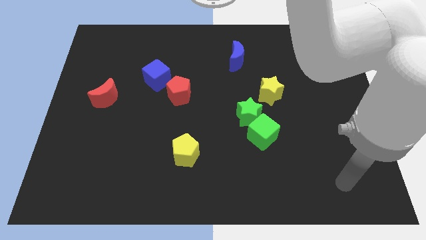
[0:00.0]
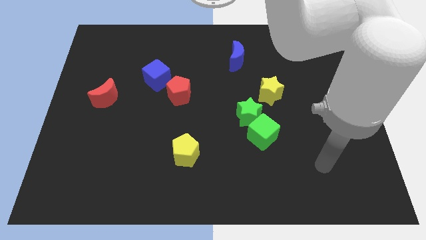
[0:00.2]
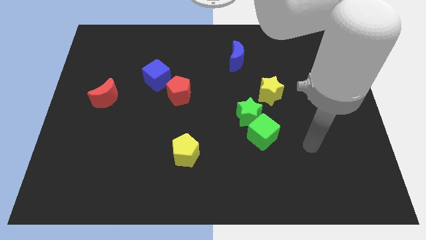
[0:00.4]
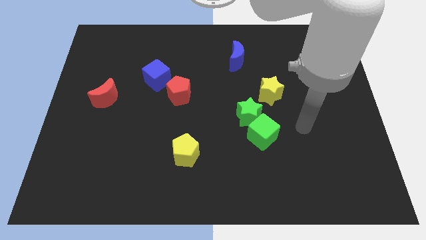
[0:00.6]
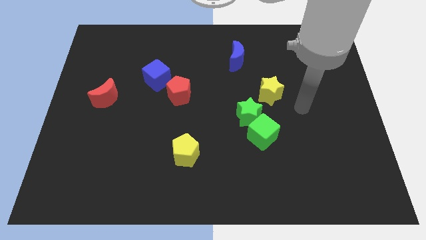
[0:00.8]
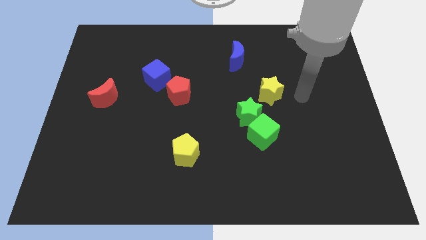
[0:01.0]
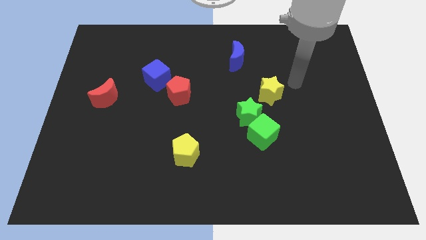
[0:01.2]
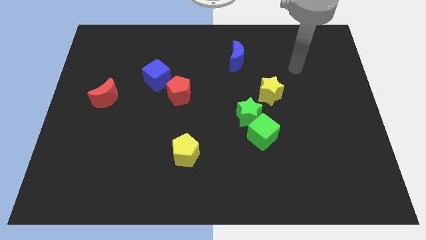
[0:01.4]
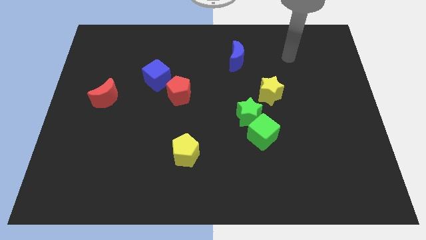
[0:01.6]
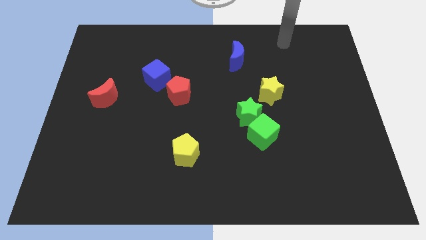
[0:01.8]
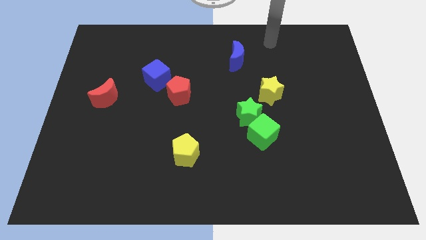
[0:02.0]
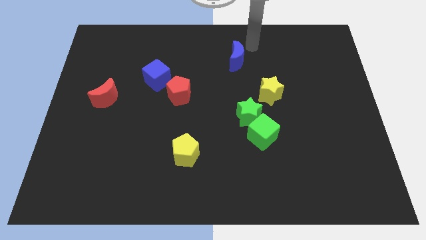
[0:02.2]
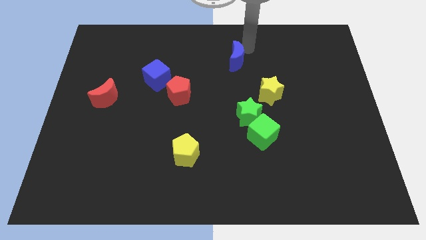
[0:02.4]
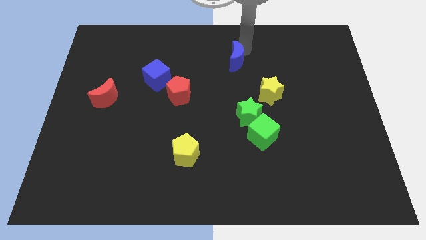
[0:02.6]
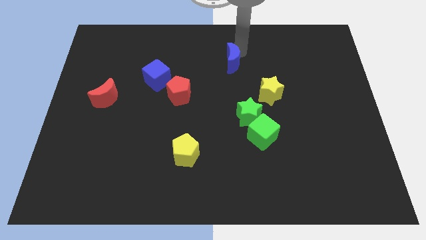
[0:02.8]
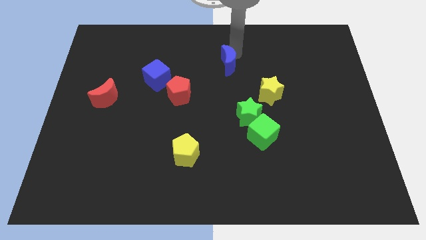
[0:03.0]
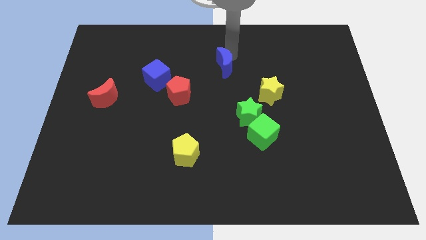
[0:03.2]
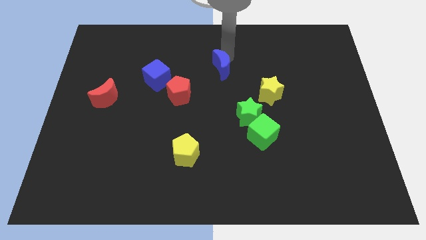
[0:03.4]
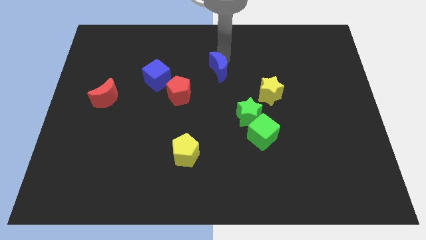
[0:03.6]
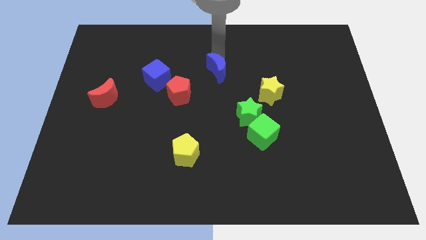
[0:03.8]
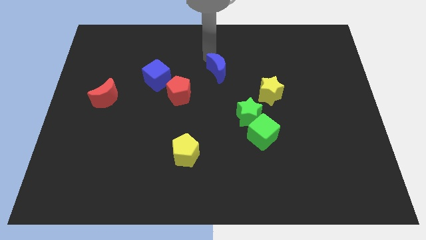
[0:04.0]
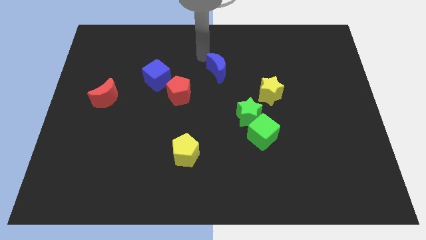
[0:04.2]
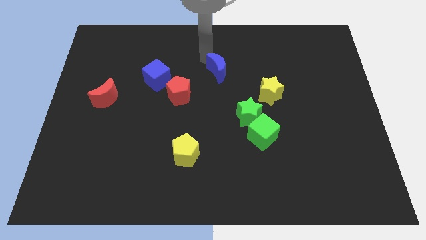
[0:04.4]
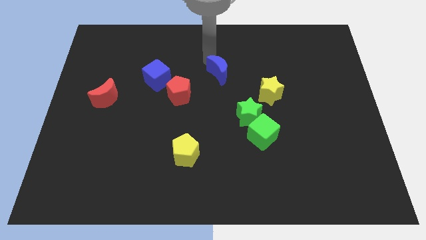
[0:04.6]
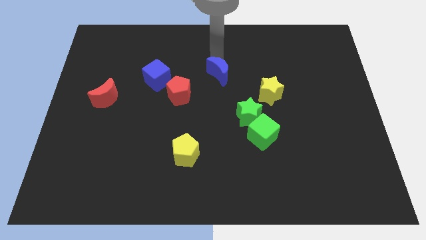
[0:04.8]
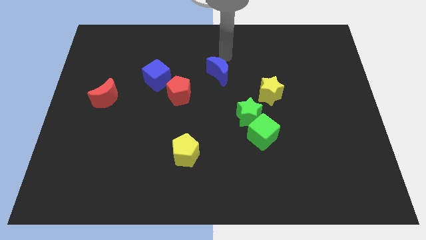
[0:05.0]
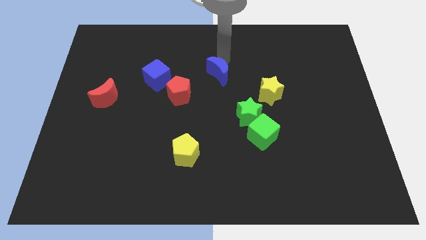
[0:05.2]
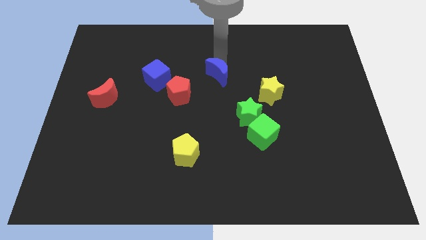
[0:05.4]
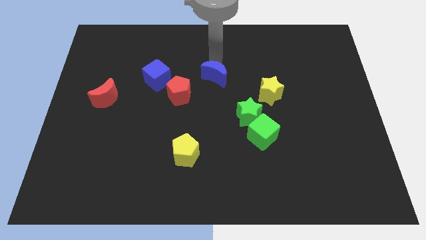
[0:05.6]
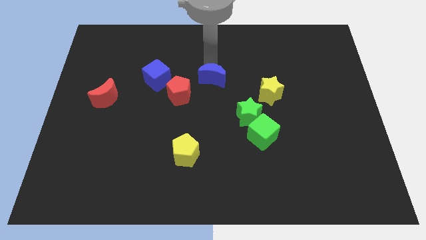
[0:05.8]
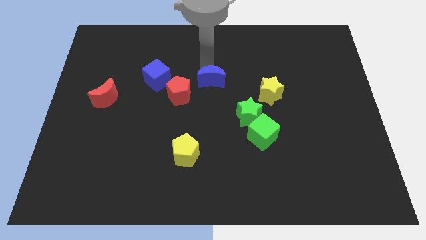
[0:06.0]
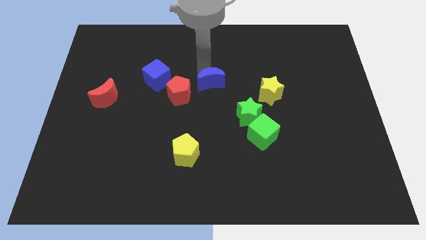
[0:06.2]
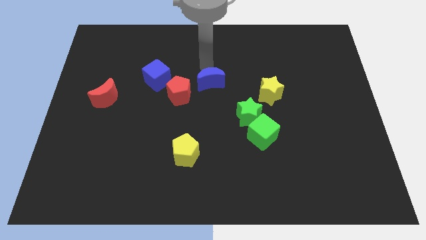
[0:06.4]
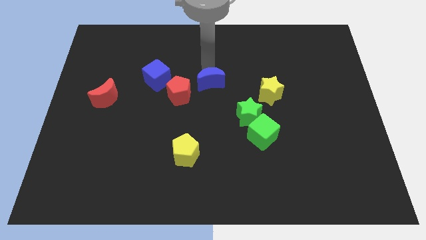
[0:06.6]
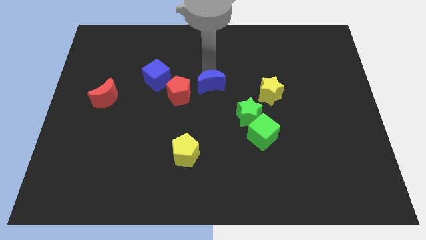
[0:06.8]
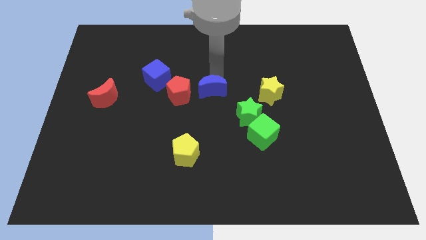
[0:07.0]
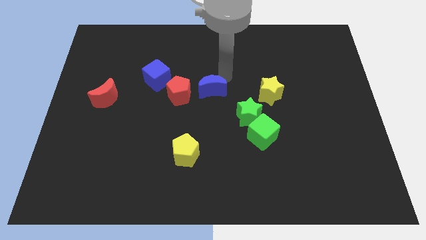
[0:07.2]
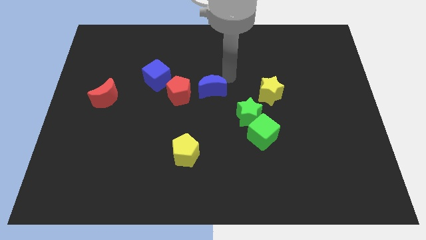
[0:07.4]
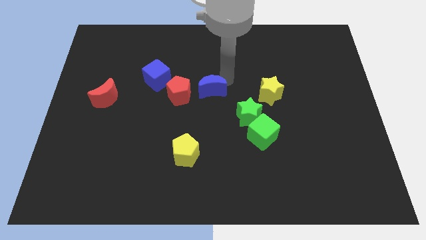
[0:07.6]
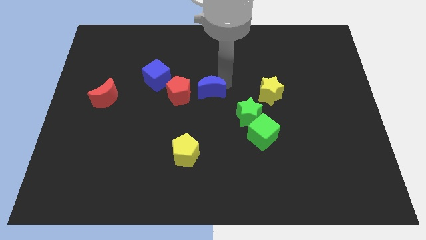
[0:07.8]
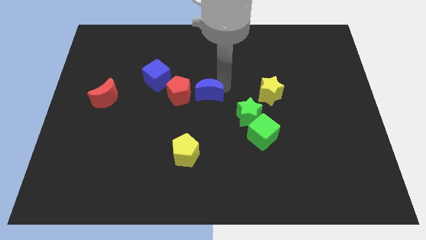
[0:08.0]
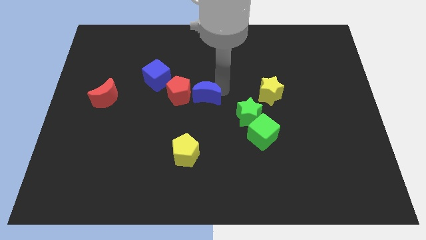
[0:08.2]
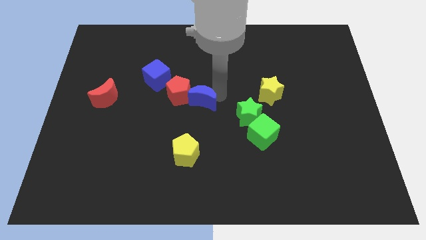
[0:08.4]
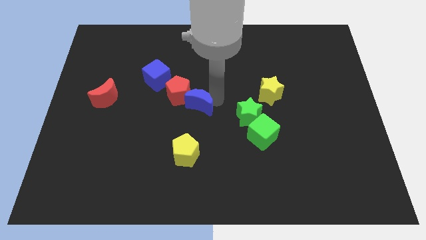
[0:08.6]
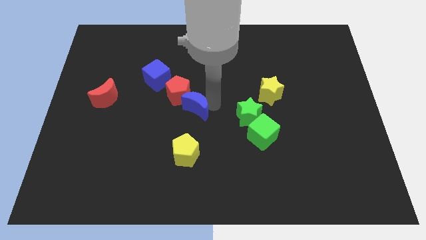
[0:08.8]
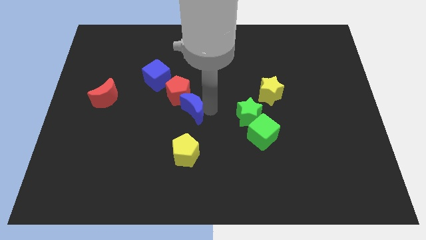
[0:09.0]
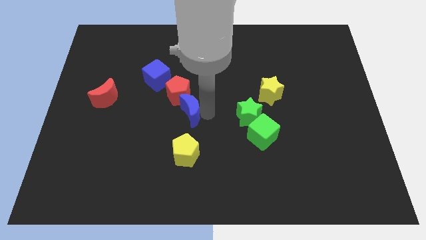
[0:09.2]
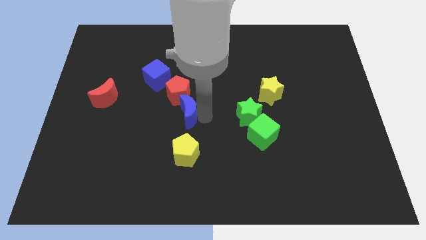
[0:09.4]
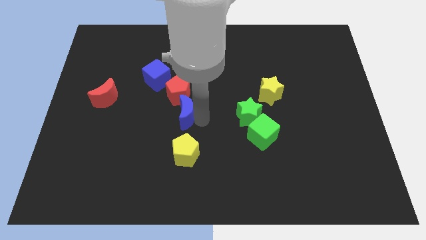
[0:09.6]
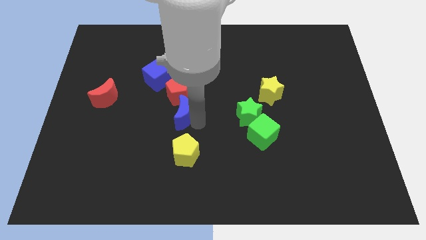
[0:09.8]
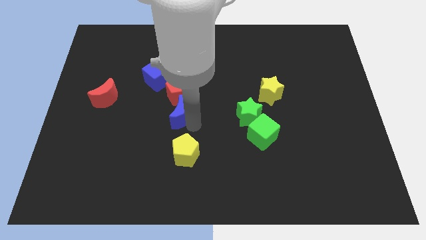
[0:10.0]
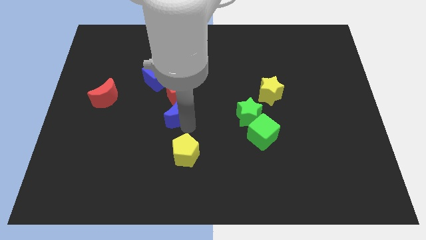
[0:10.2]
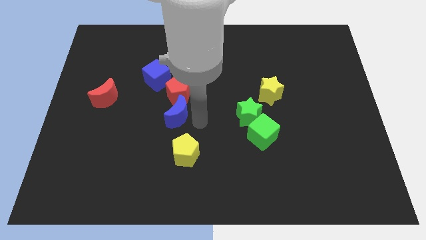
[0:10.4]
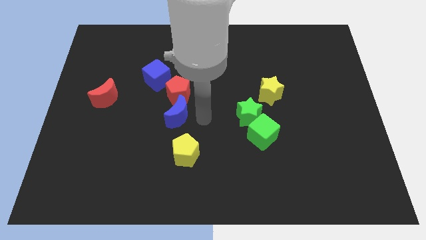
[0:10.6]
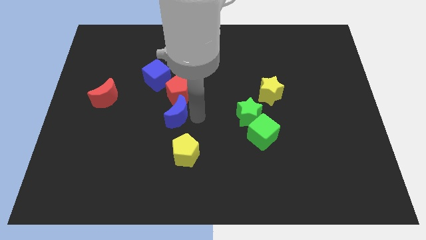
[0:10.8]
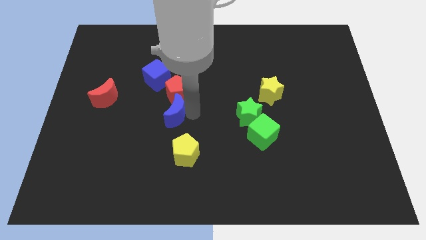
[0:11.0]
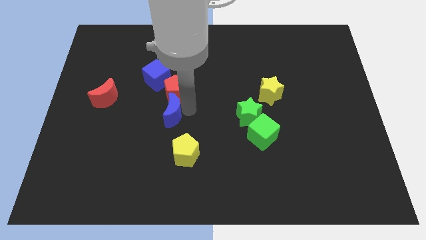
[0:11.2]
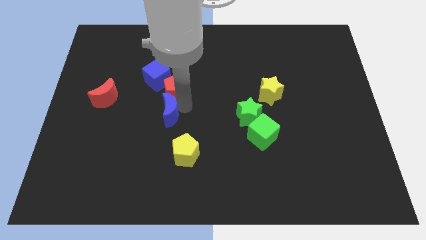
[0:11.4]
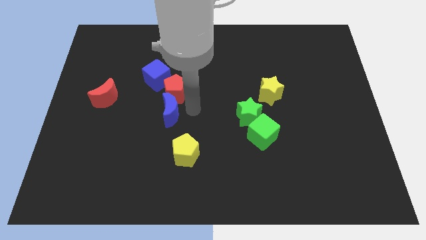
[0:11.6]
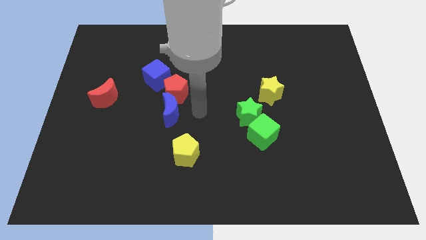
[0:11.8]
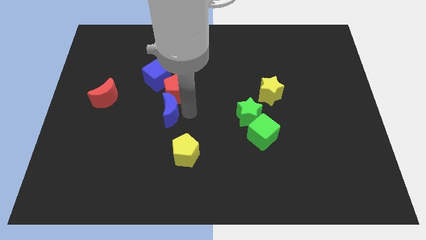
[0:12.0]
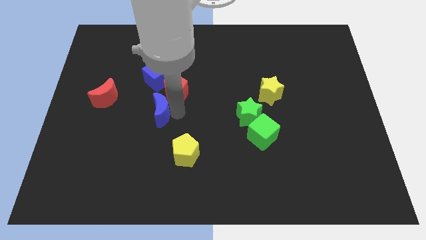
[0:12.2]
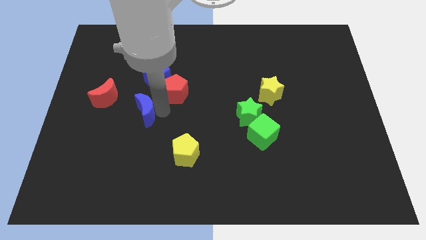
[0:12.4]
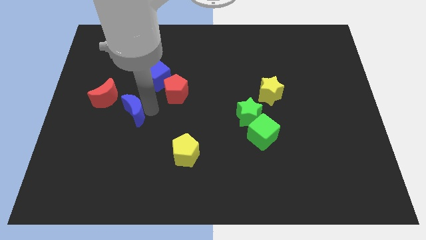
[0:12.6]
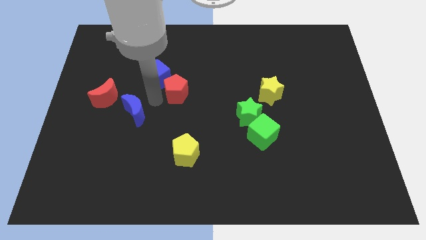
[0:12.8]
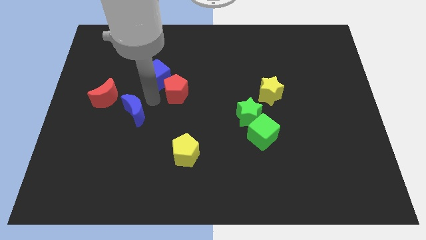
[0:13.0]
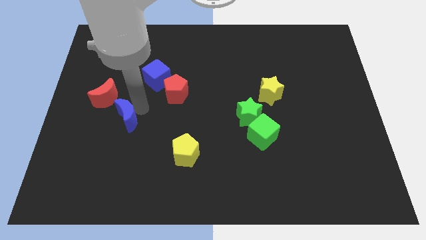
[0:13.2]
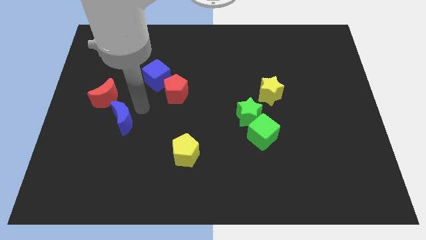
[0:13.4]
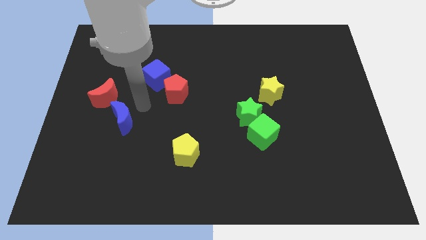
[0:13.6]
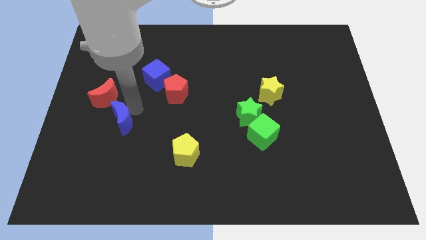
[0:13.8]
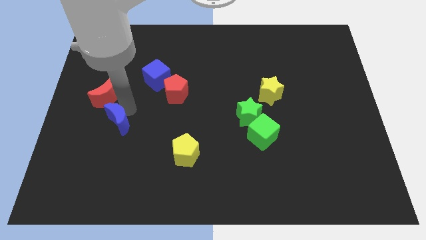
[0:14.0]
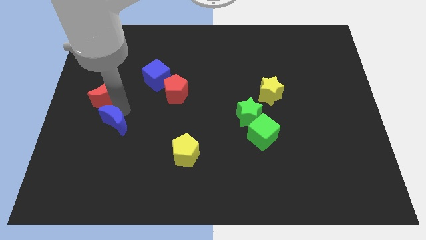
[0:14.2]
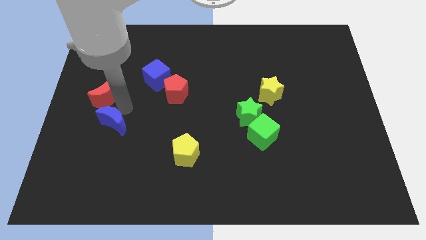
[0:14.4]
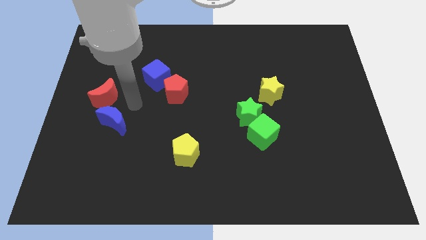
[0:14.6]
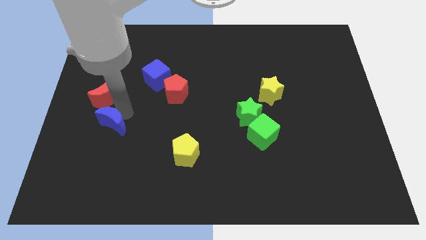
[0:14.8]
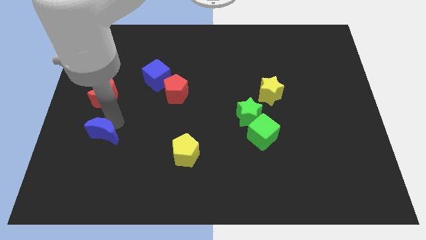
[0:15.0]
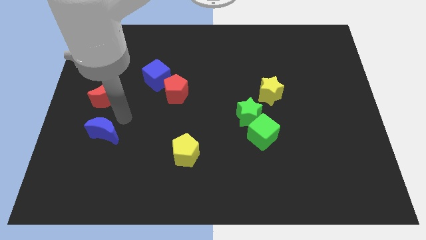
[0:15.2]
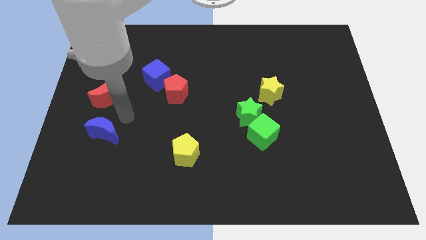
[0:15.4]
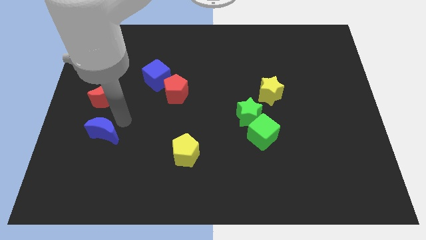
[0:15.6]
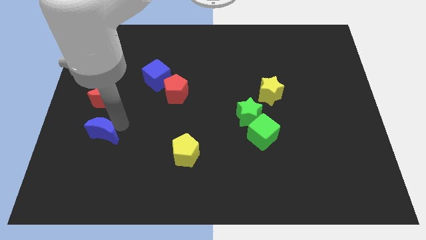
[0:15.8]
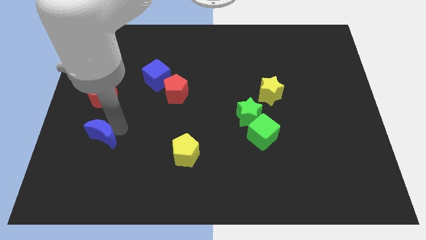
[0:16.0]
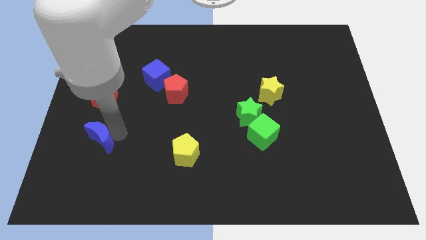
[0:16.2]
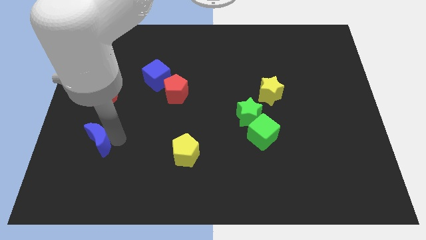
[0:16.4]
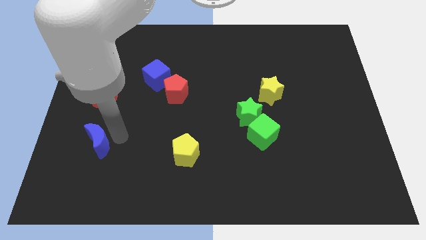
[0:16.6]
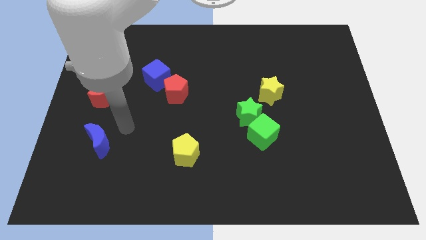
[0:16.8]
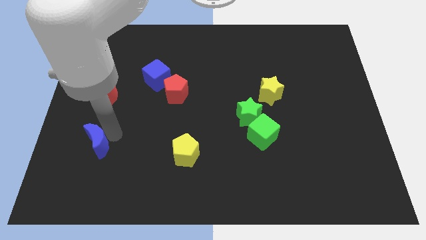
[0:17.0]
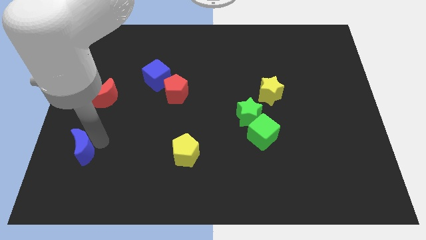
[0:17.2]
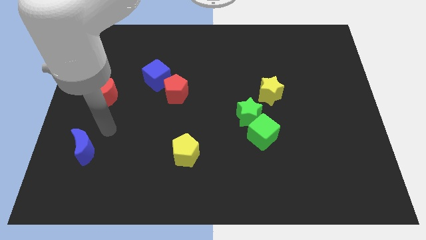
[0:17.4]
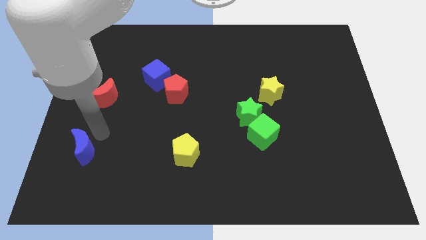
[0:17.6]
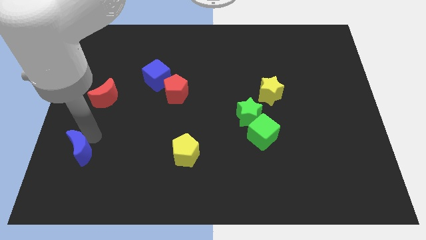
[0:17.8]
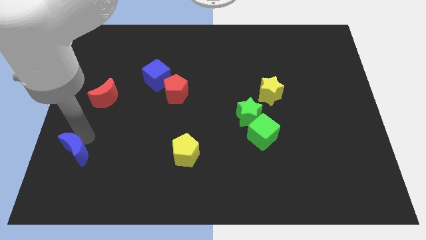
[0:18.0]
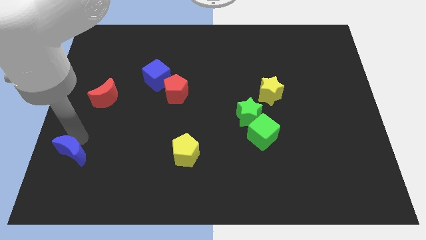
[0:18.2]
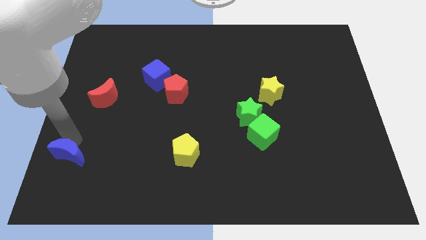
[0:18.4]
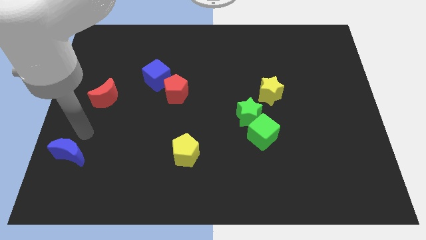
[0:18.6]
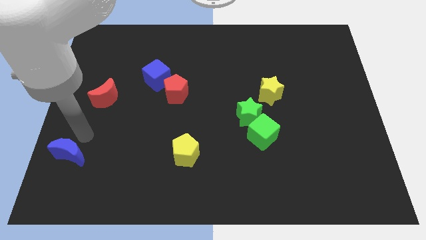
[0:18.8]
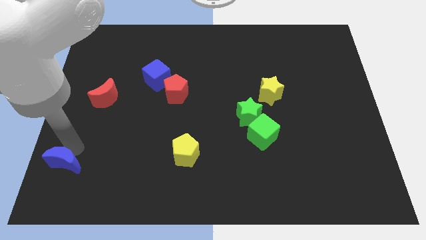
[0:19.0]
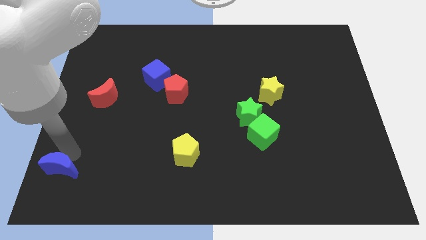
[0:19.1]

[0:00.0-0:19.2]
push the blue moon to the bottom left
